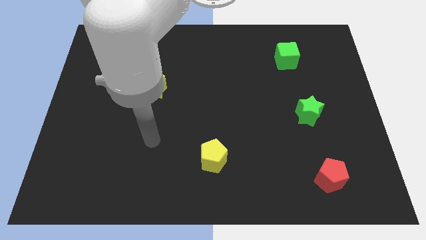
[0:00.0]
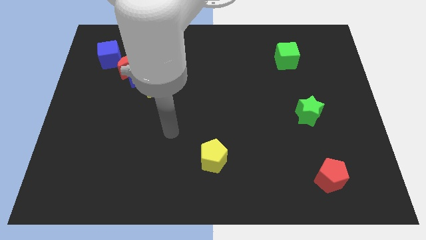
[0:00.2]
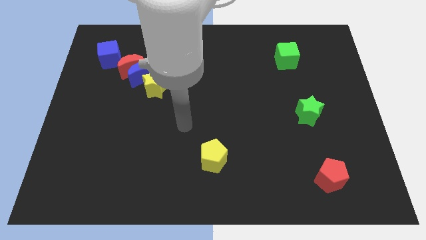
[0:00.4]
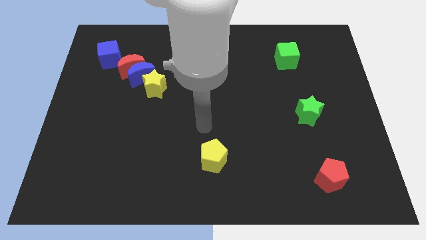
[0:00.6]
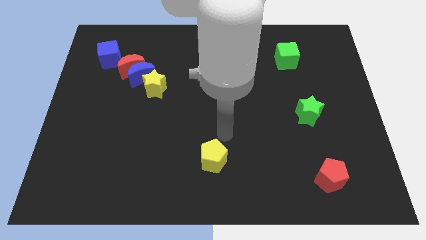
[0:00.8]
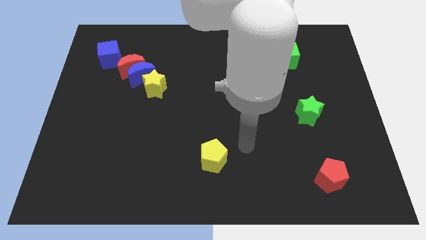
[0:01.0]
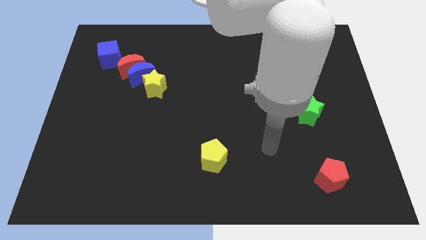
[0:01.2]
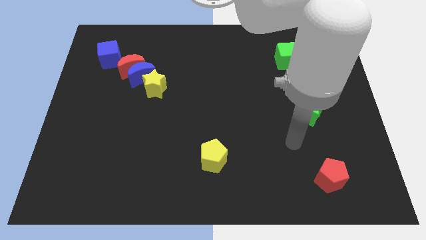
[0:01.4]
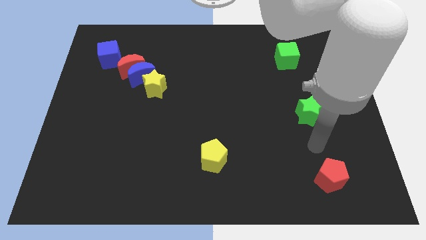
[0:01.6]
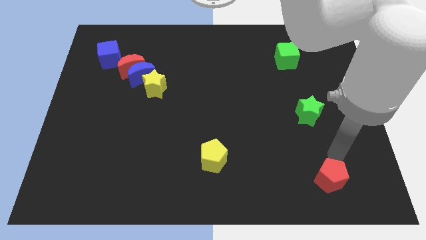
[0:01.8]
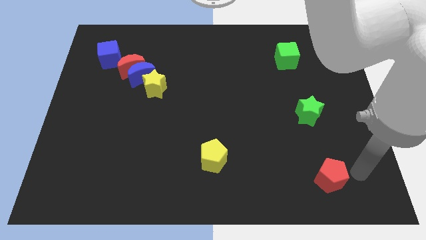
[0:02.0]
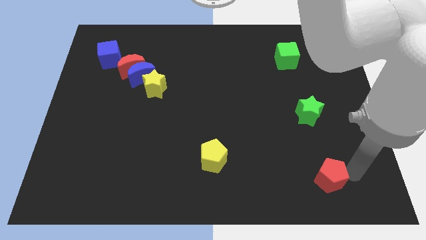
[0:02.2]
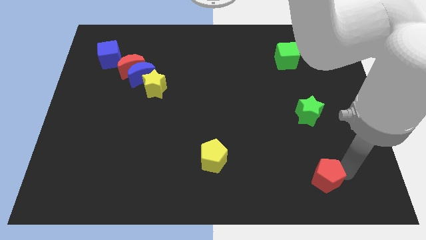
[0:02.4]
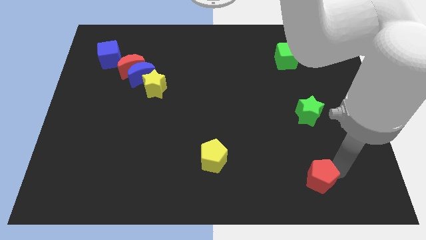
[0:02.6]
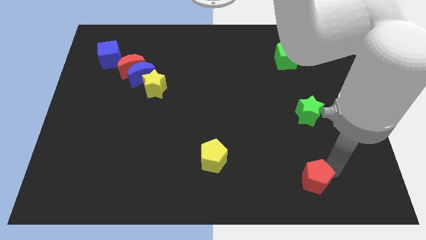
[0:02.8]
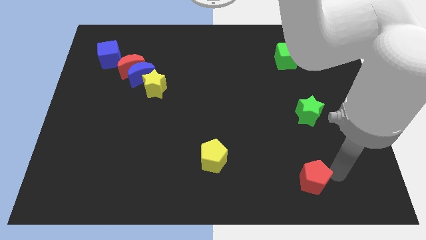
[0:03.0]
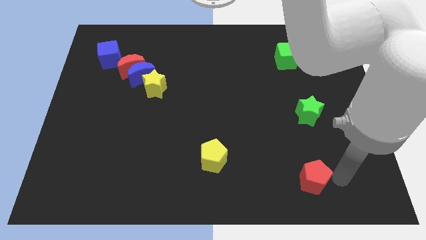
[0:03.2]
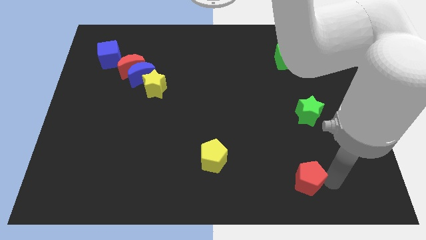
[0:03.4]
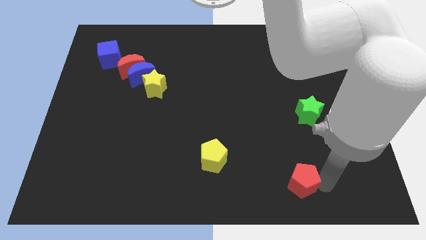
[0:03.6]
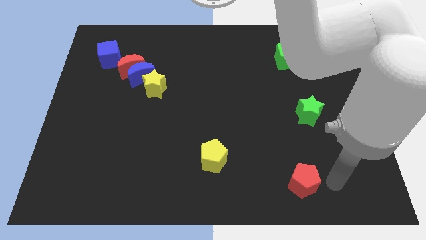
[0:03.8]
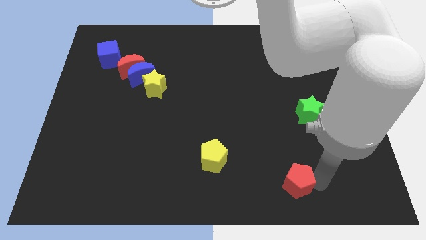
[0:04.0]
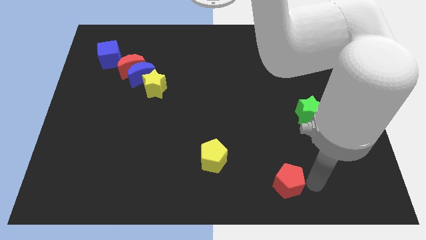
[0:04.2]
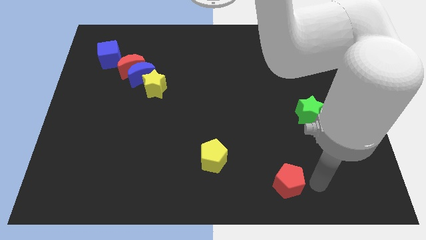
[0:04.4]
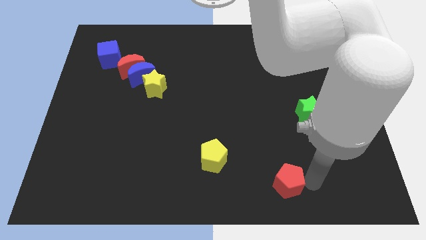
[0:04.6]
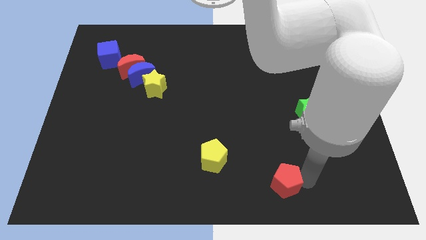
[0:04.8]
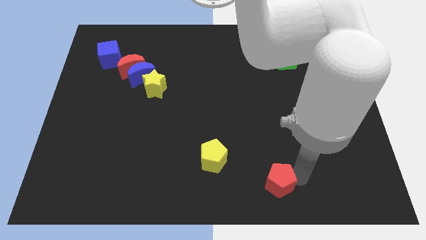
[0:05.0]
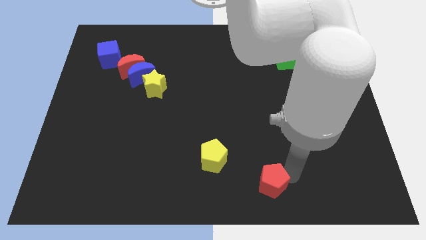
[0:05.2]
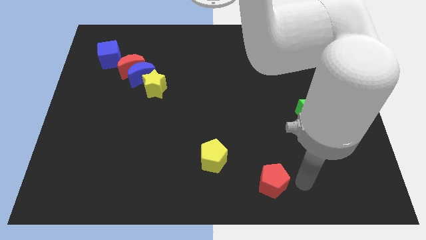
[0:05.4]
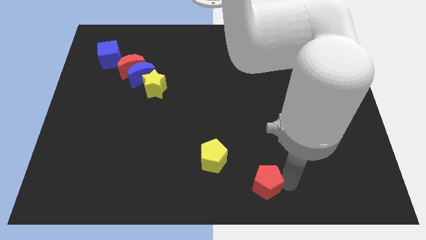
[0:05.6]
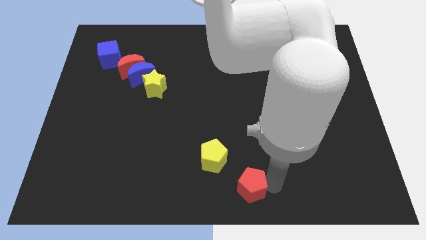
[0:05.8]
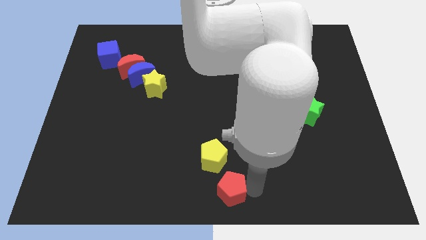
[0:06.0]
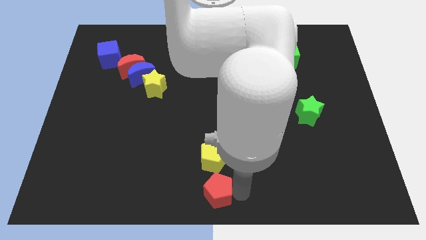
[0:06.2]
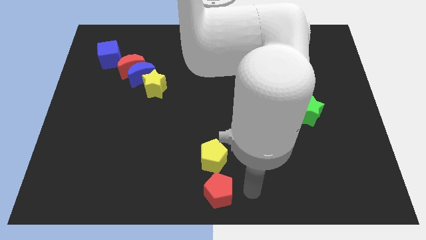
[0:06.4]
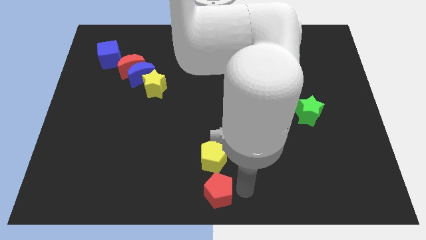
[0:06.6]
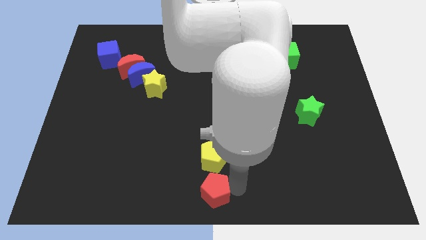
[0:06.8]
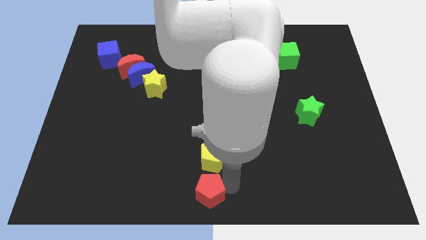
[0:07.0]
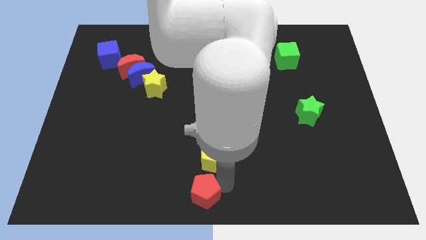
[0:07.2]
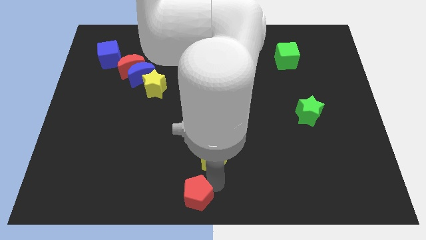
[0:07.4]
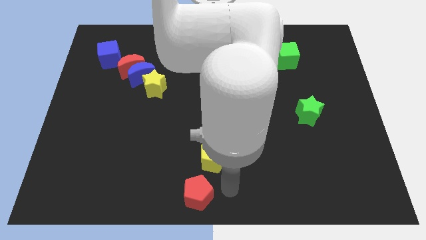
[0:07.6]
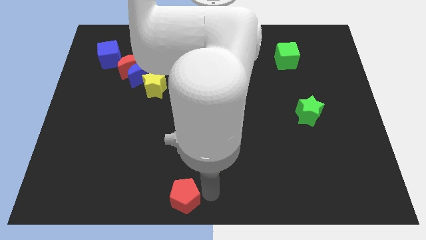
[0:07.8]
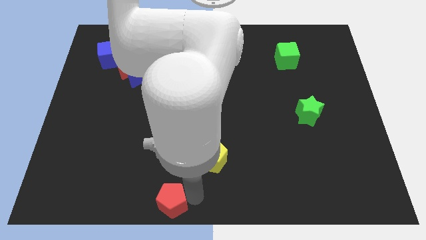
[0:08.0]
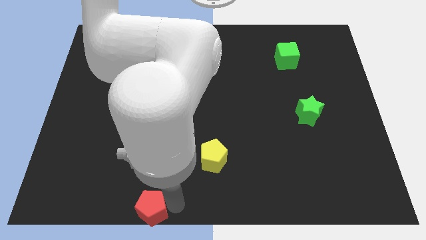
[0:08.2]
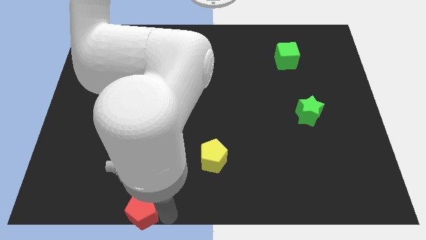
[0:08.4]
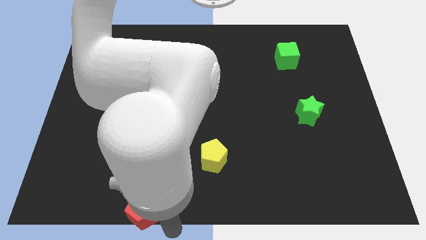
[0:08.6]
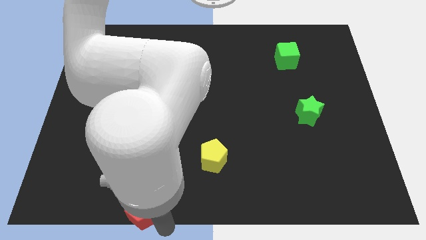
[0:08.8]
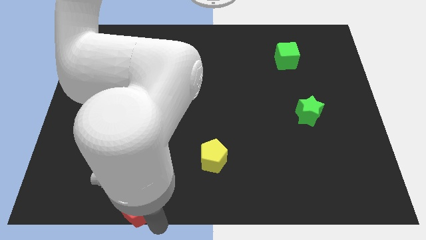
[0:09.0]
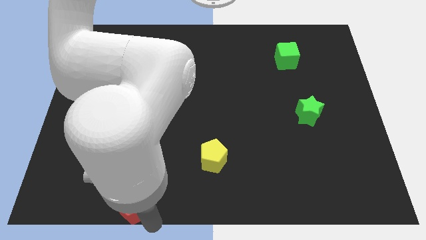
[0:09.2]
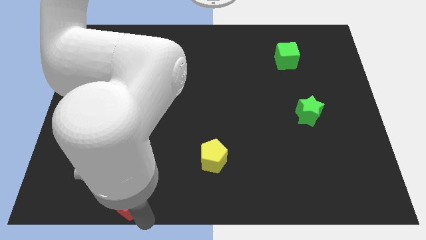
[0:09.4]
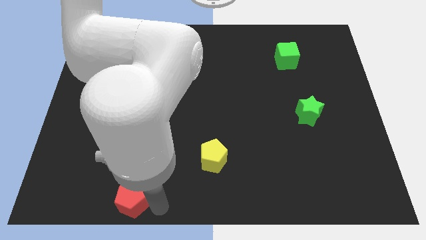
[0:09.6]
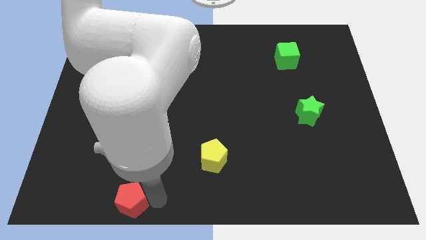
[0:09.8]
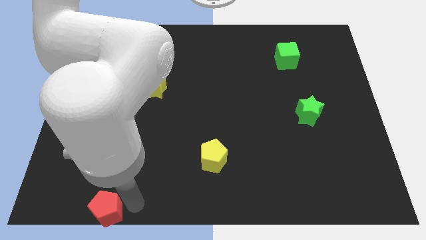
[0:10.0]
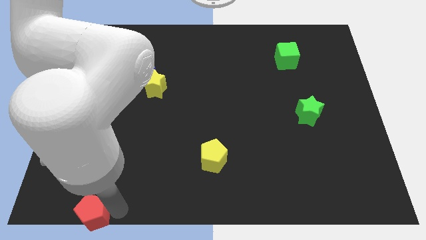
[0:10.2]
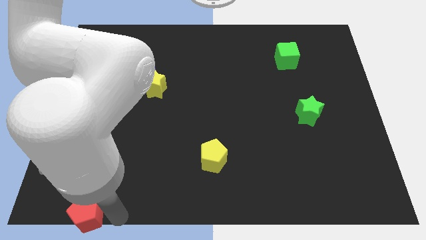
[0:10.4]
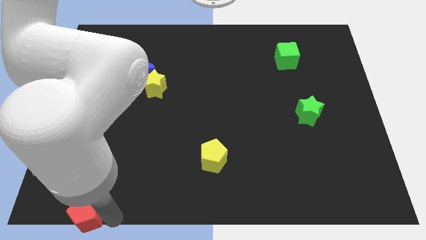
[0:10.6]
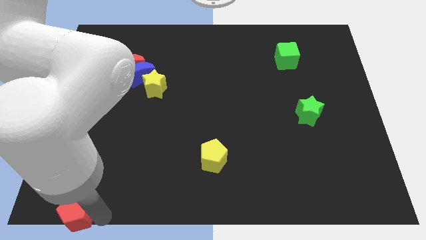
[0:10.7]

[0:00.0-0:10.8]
put the red pentagon to the bottom left of the board
